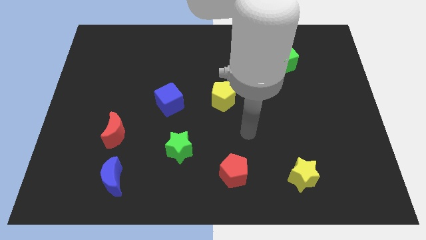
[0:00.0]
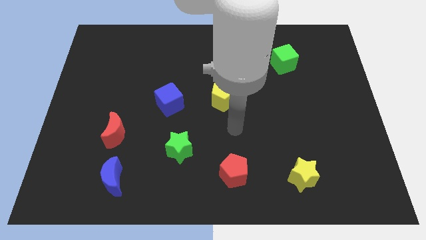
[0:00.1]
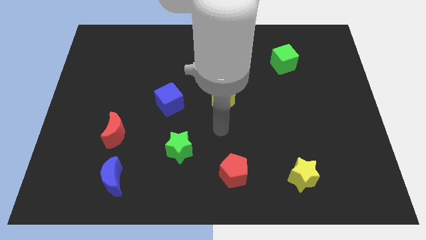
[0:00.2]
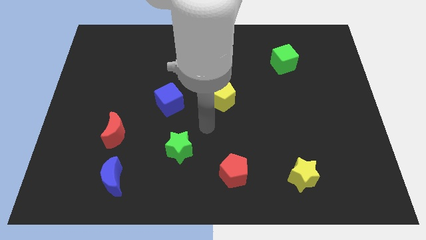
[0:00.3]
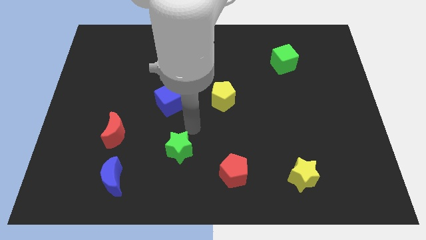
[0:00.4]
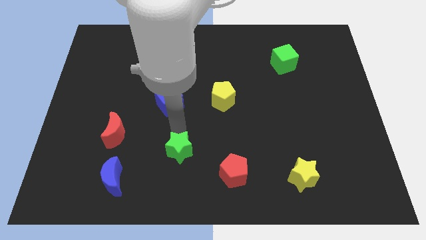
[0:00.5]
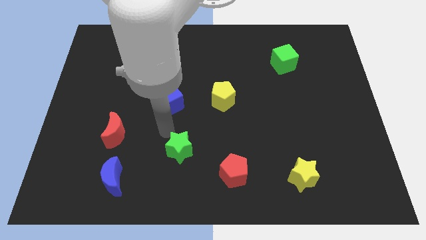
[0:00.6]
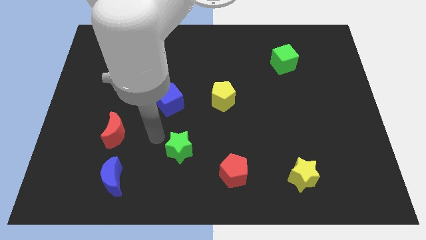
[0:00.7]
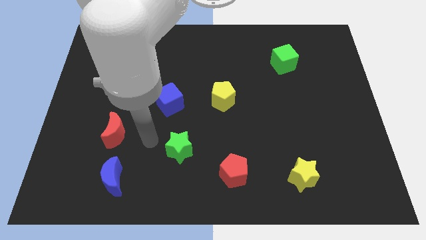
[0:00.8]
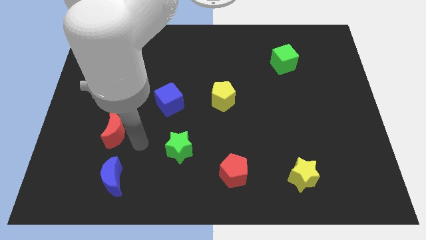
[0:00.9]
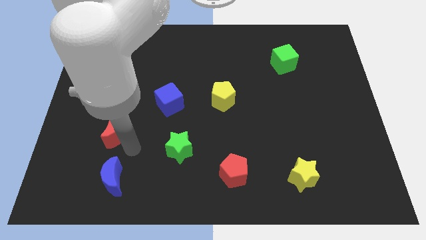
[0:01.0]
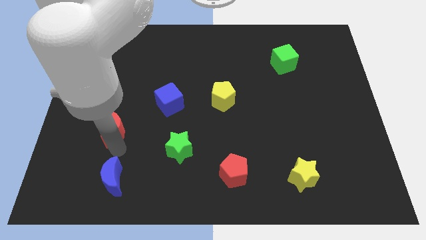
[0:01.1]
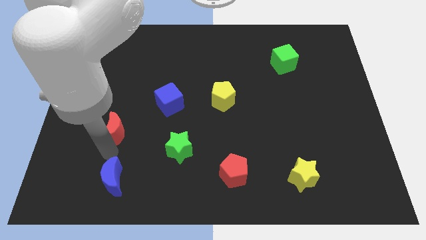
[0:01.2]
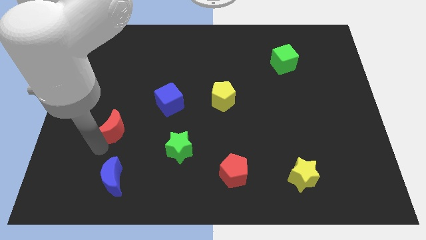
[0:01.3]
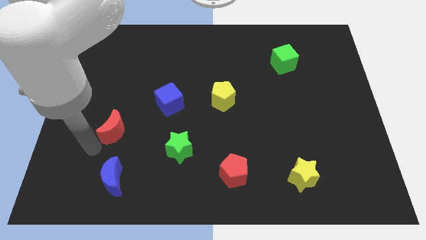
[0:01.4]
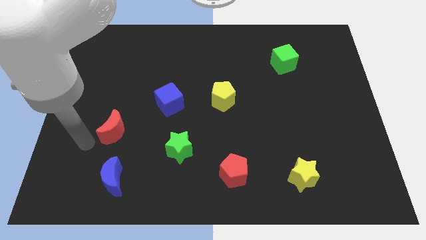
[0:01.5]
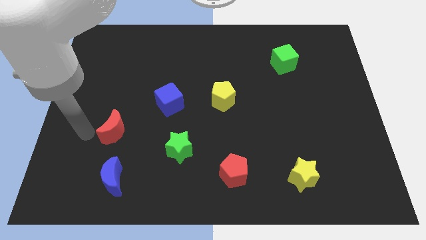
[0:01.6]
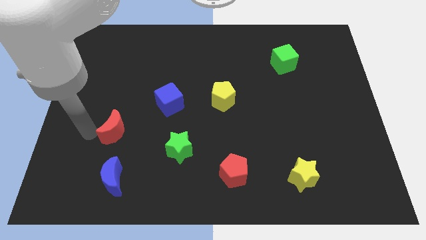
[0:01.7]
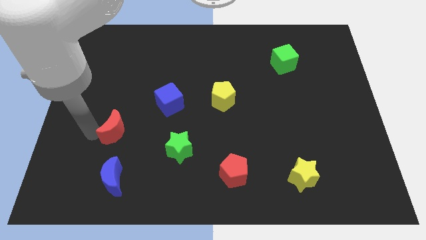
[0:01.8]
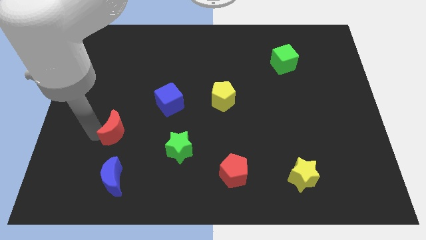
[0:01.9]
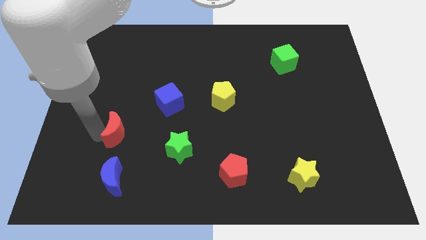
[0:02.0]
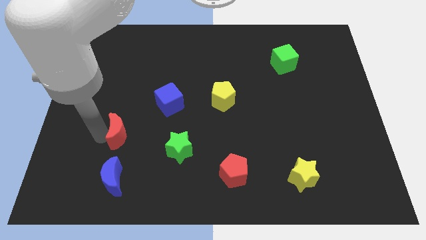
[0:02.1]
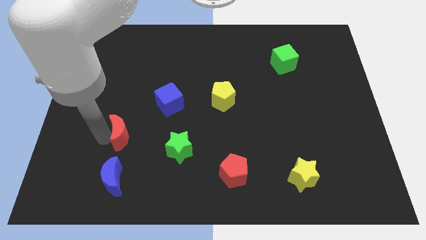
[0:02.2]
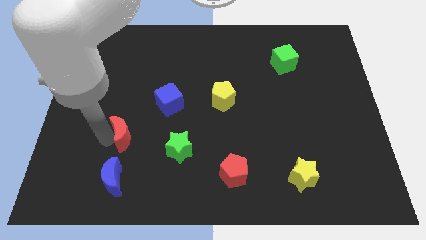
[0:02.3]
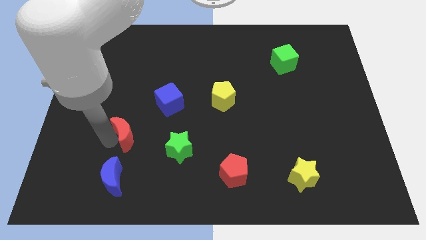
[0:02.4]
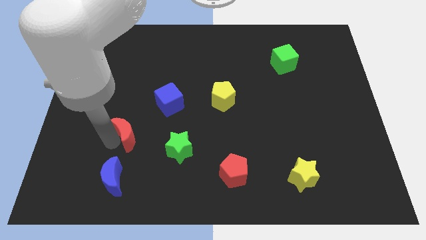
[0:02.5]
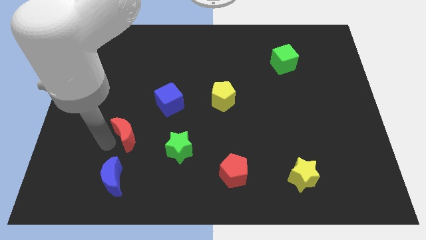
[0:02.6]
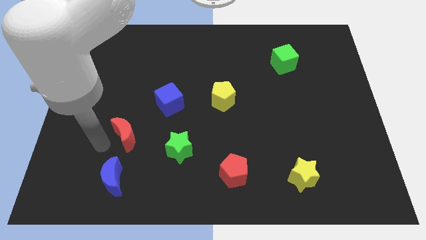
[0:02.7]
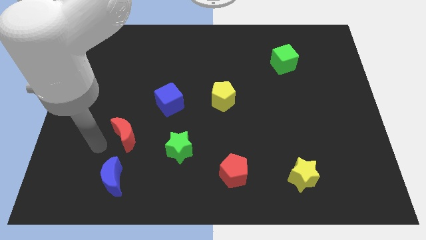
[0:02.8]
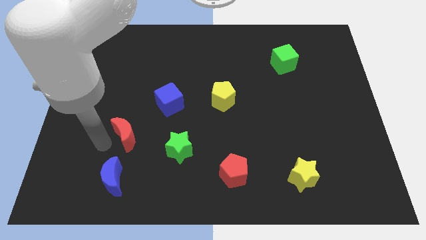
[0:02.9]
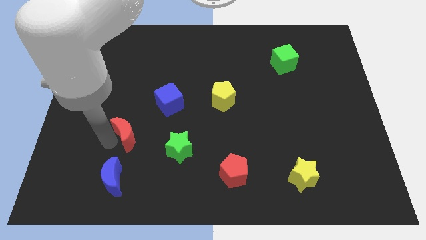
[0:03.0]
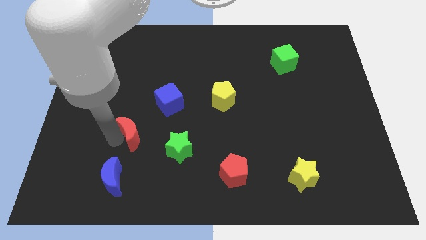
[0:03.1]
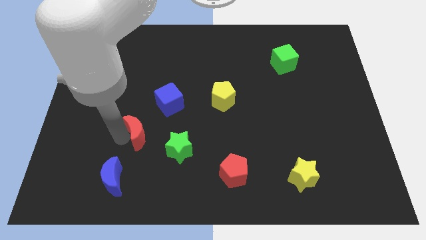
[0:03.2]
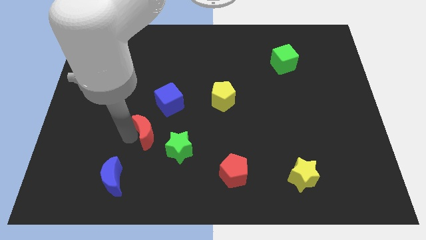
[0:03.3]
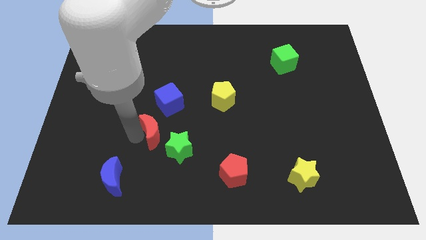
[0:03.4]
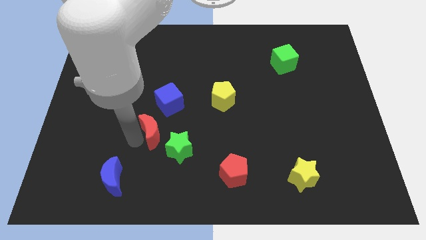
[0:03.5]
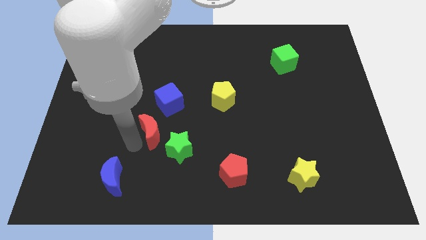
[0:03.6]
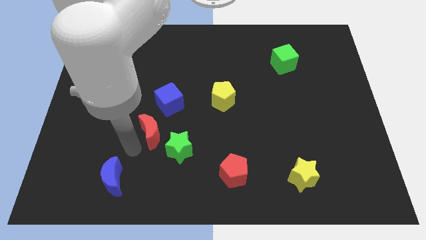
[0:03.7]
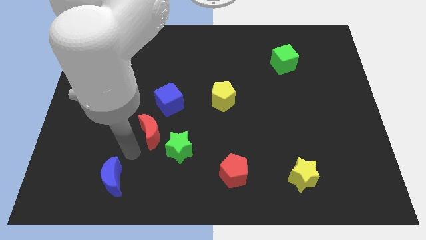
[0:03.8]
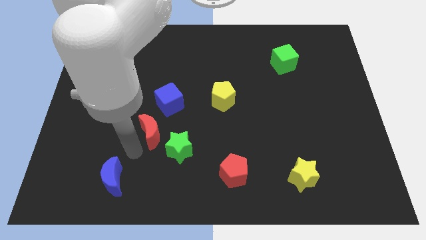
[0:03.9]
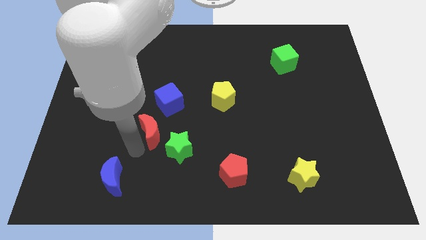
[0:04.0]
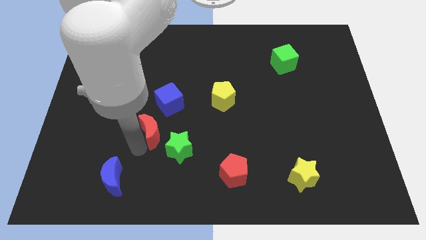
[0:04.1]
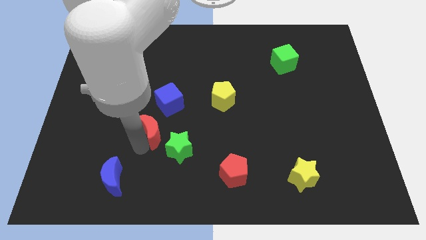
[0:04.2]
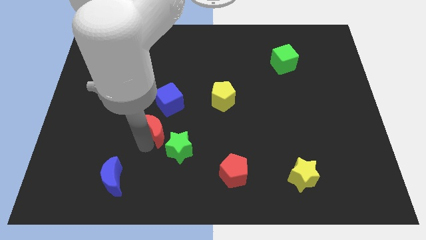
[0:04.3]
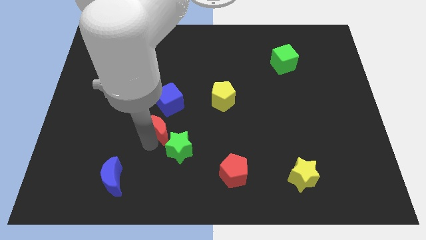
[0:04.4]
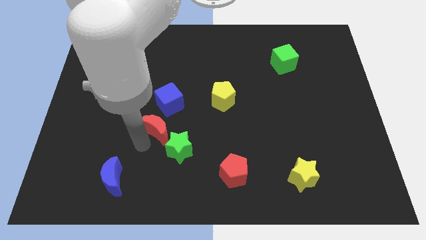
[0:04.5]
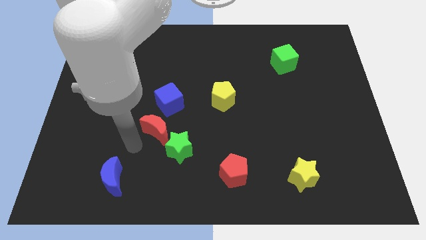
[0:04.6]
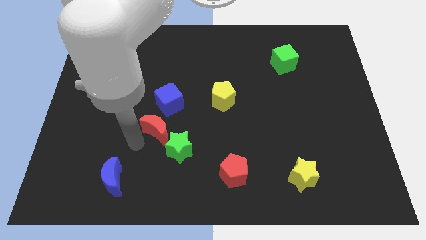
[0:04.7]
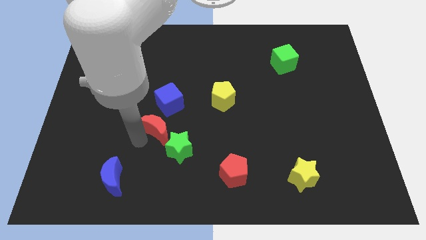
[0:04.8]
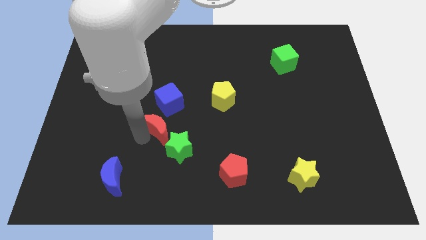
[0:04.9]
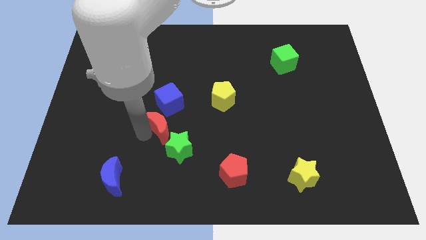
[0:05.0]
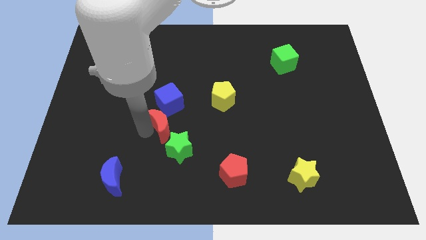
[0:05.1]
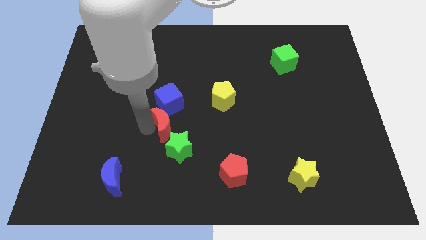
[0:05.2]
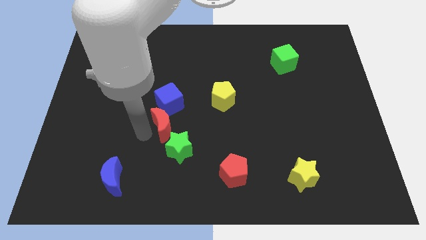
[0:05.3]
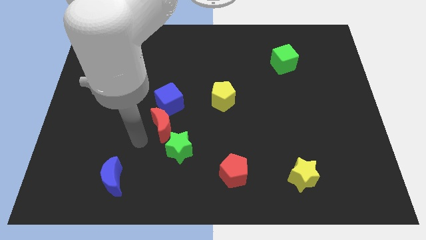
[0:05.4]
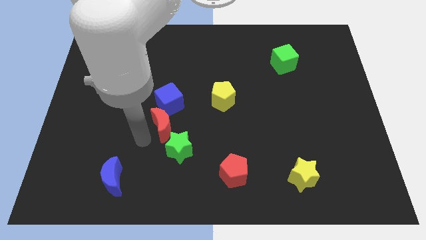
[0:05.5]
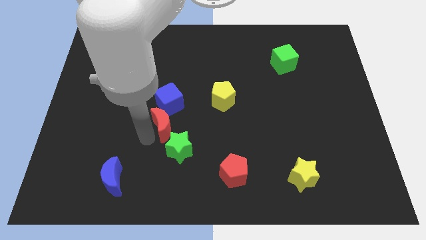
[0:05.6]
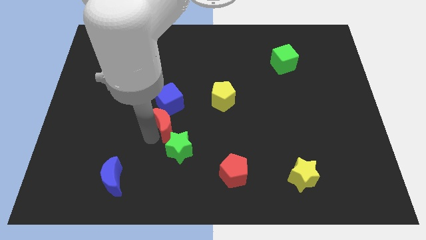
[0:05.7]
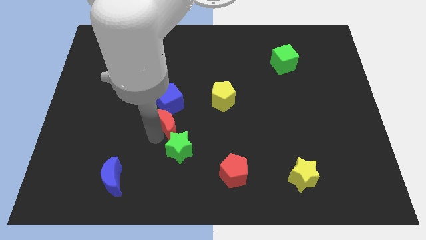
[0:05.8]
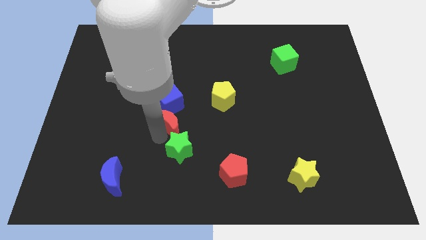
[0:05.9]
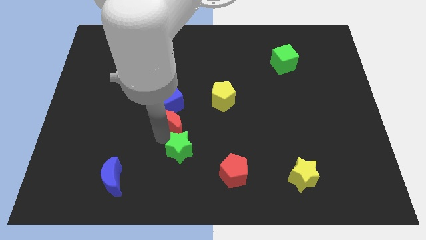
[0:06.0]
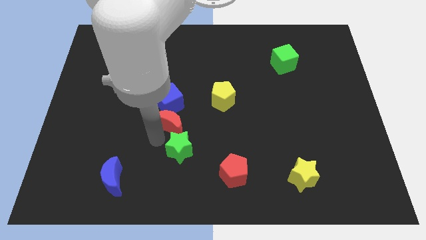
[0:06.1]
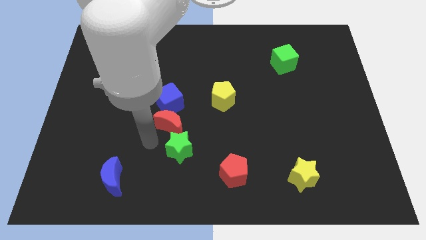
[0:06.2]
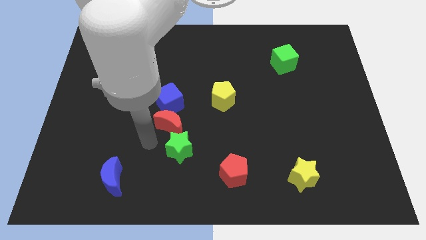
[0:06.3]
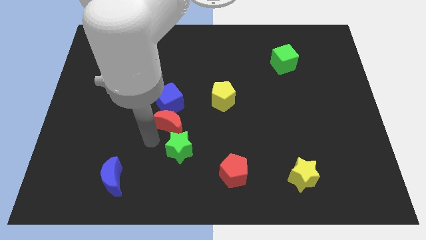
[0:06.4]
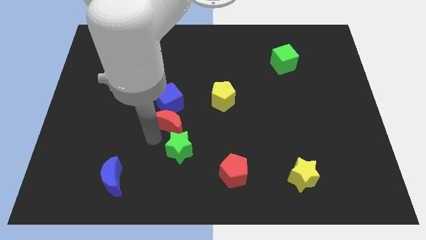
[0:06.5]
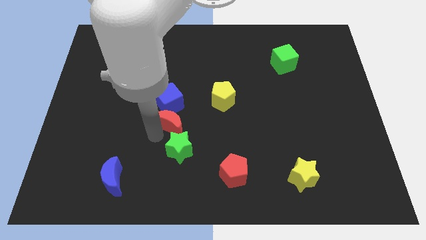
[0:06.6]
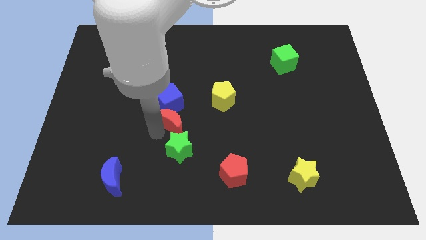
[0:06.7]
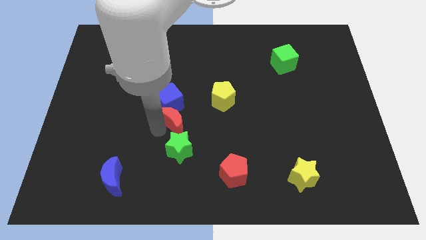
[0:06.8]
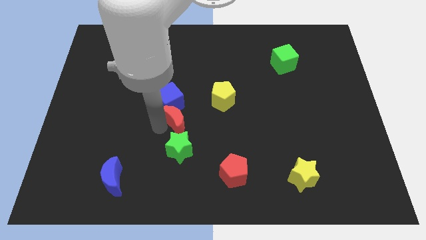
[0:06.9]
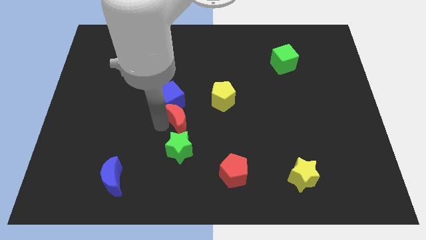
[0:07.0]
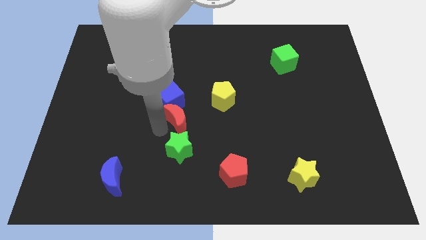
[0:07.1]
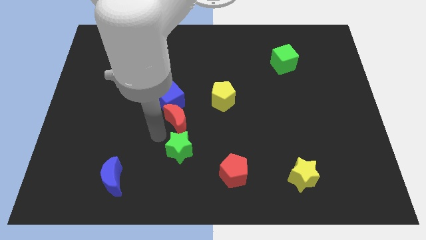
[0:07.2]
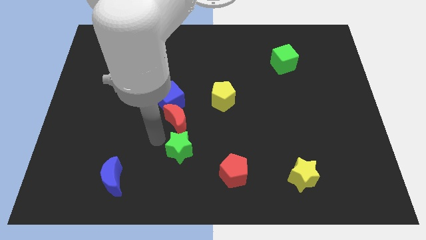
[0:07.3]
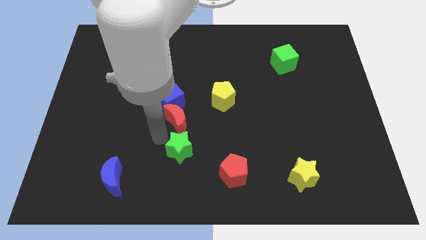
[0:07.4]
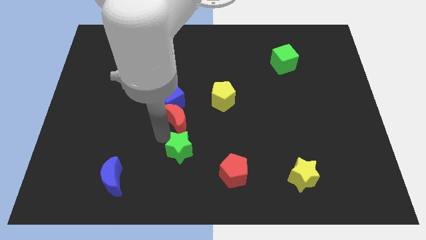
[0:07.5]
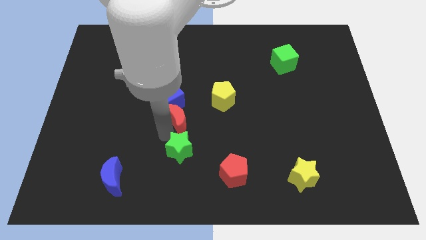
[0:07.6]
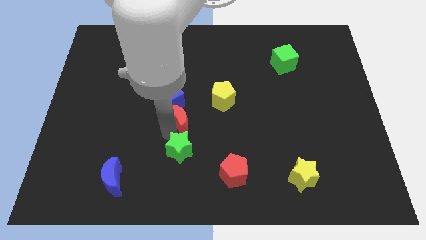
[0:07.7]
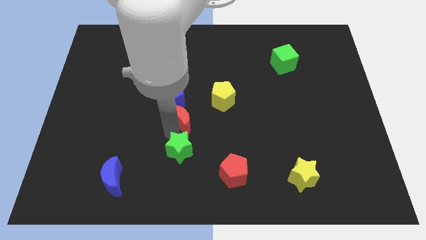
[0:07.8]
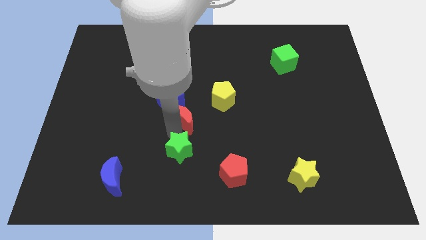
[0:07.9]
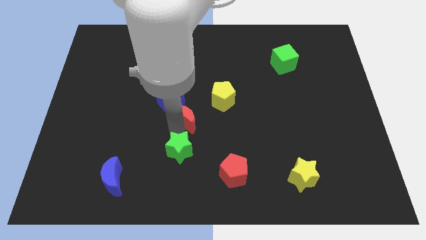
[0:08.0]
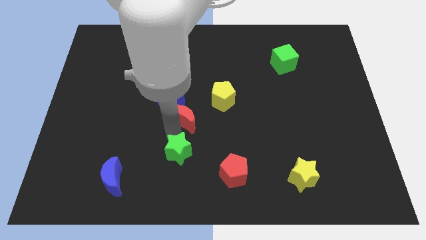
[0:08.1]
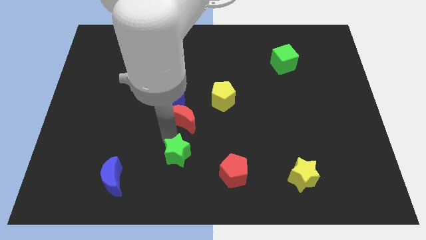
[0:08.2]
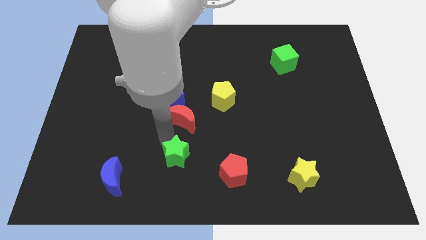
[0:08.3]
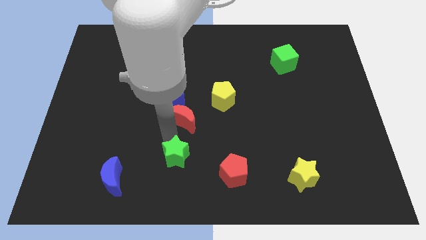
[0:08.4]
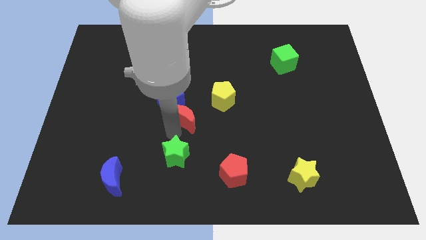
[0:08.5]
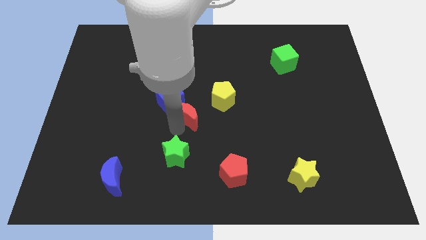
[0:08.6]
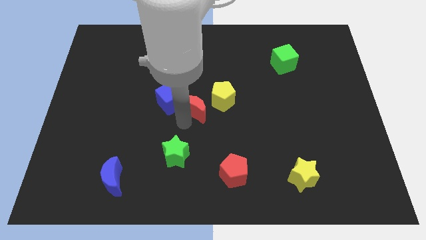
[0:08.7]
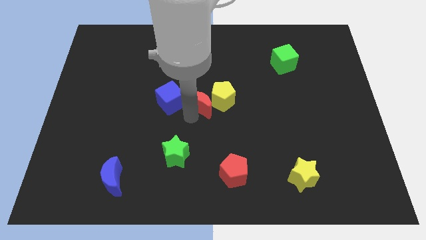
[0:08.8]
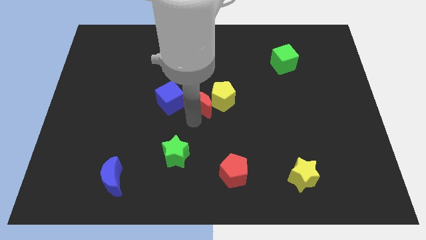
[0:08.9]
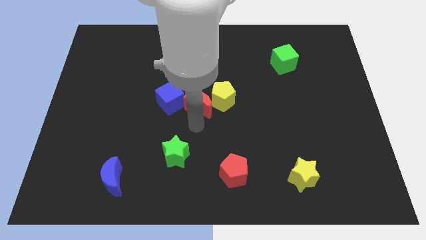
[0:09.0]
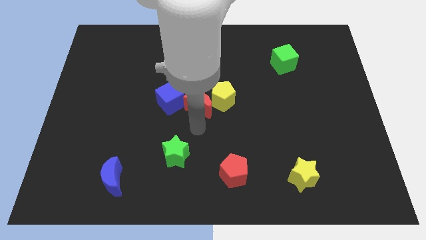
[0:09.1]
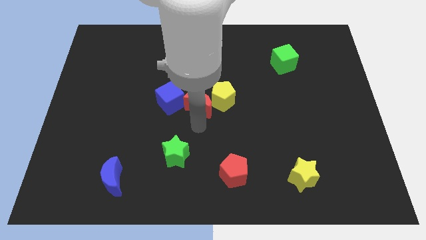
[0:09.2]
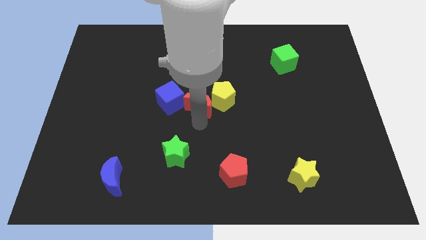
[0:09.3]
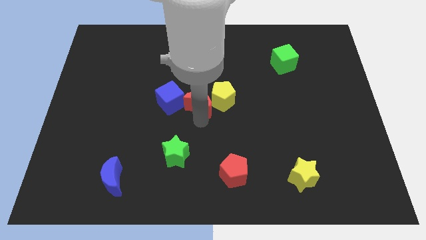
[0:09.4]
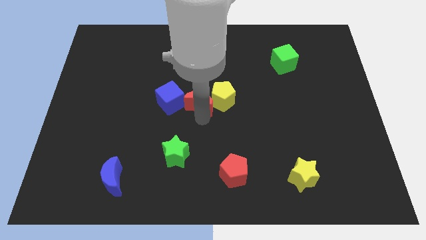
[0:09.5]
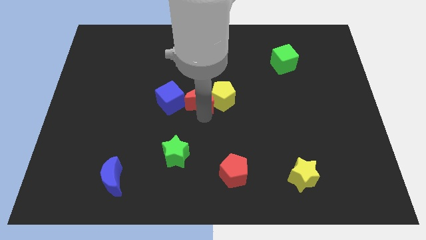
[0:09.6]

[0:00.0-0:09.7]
move the red moon to the top left of the yellow pentagon
